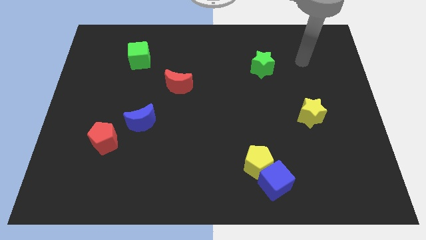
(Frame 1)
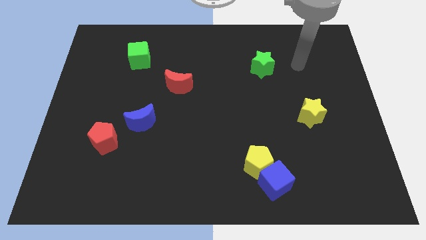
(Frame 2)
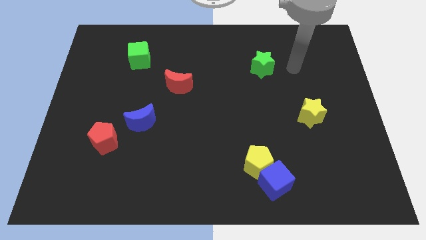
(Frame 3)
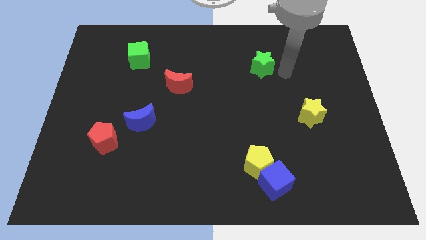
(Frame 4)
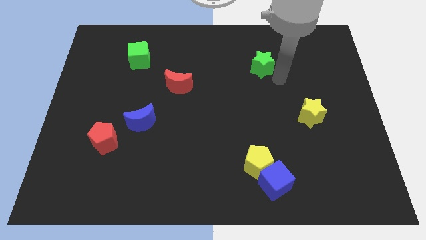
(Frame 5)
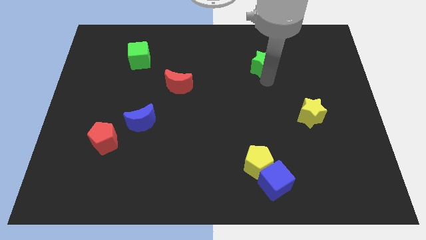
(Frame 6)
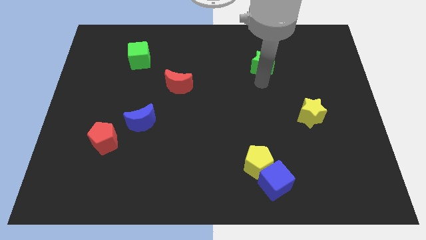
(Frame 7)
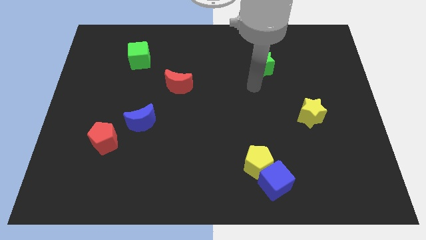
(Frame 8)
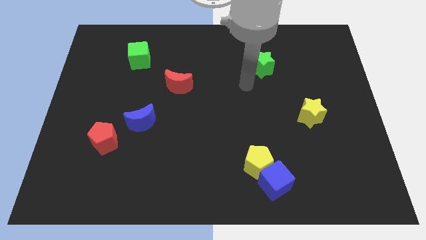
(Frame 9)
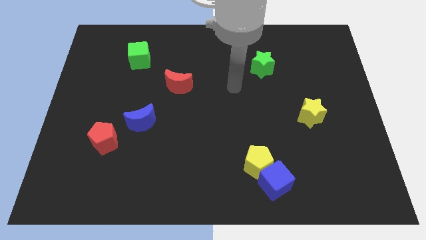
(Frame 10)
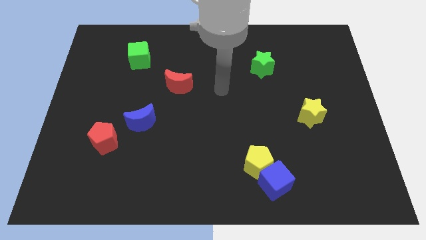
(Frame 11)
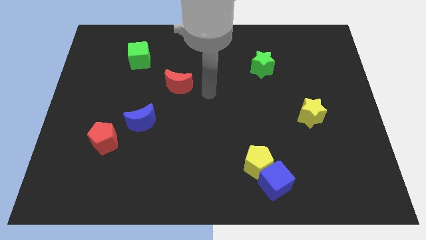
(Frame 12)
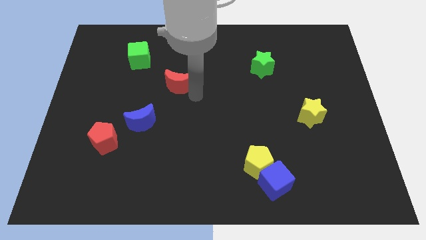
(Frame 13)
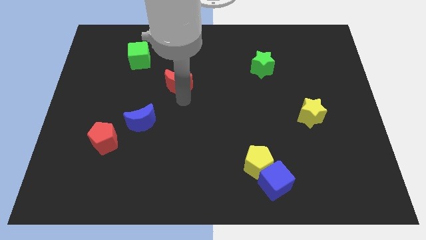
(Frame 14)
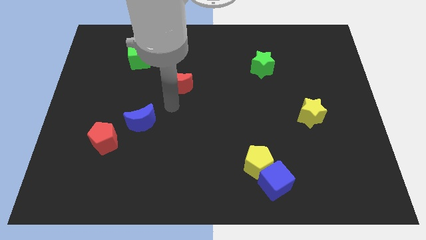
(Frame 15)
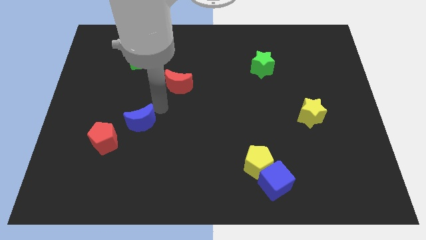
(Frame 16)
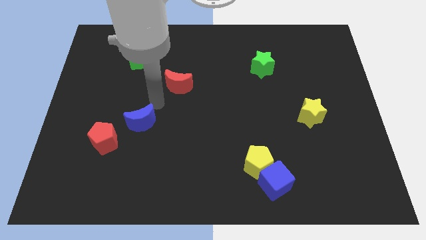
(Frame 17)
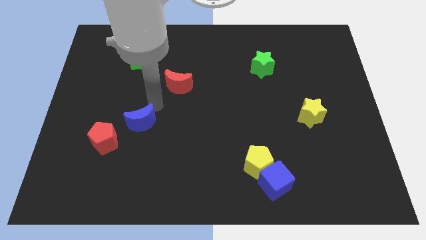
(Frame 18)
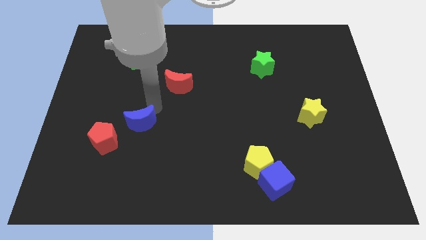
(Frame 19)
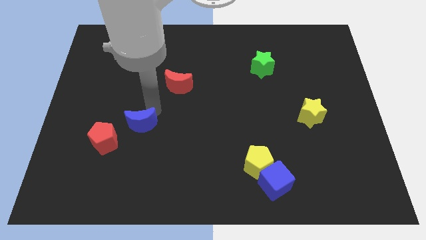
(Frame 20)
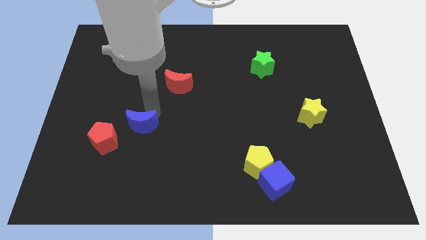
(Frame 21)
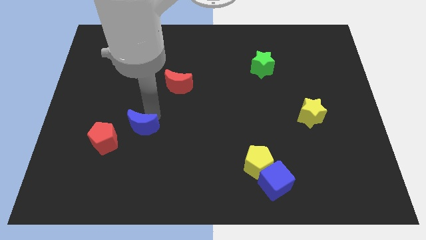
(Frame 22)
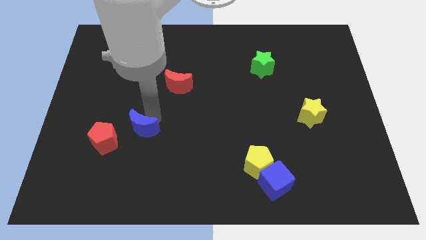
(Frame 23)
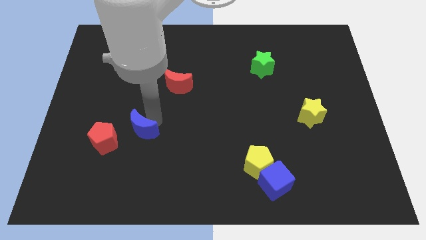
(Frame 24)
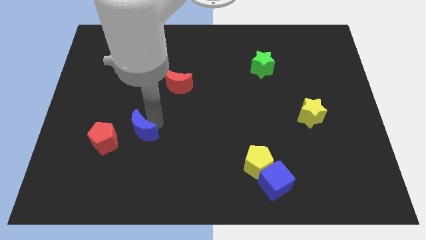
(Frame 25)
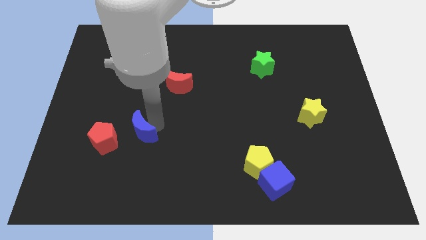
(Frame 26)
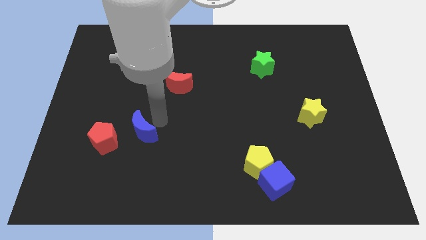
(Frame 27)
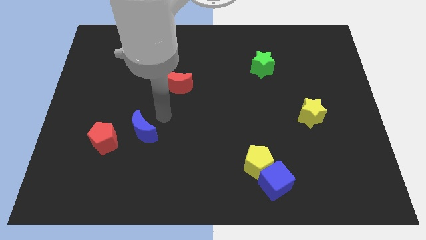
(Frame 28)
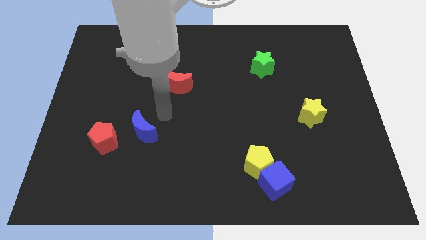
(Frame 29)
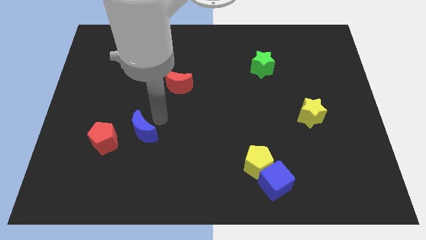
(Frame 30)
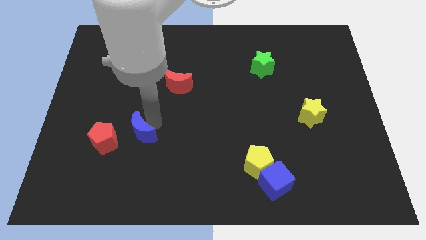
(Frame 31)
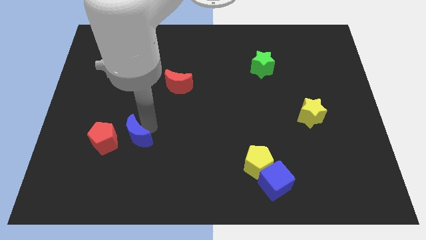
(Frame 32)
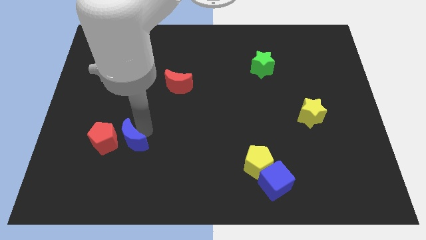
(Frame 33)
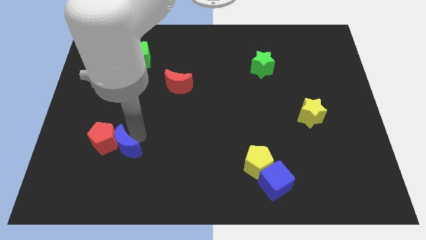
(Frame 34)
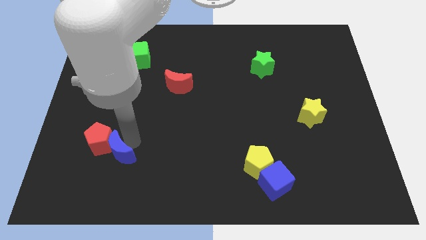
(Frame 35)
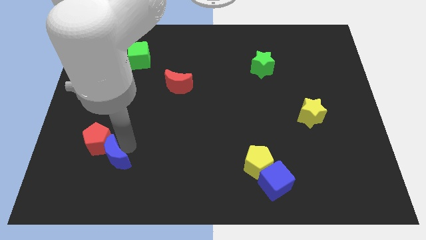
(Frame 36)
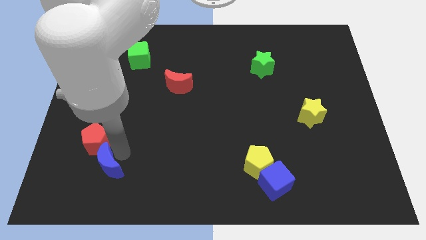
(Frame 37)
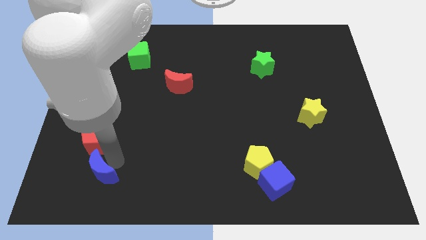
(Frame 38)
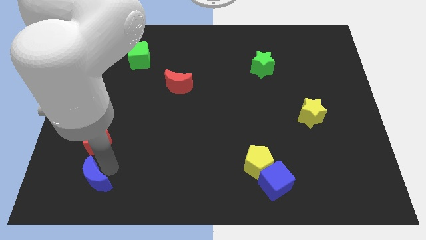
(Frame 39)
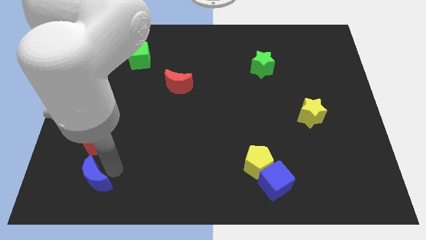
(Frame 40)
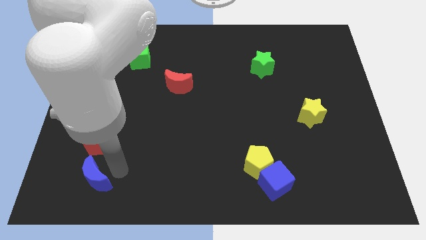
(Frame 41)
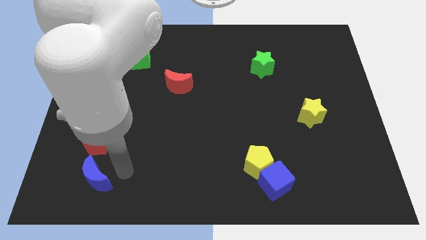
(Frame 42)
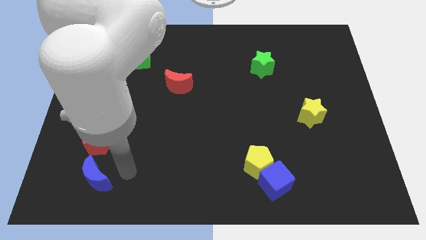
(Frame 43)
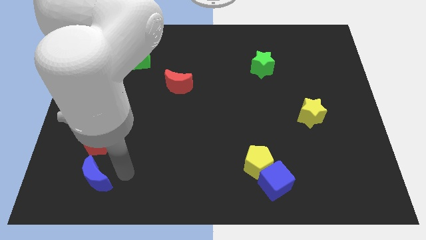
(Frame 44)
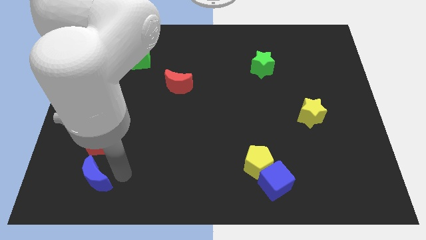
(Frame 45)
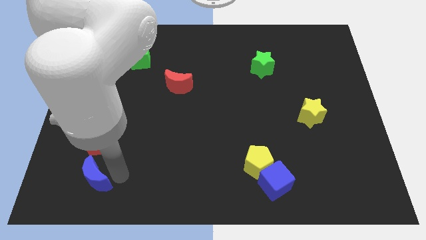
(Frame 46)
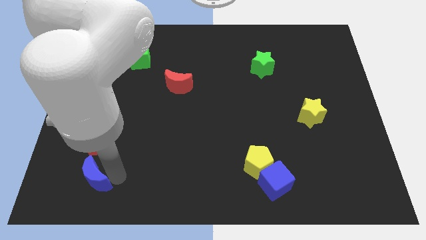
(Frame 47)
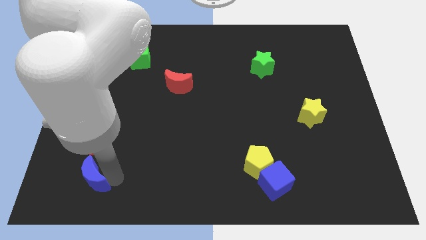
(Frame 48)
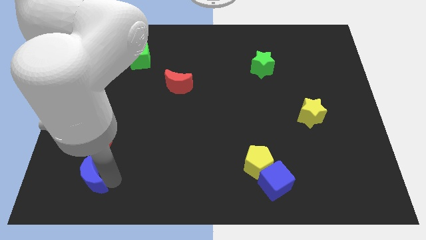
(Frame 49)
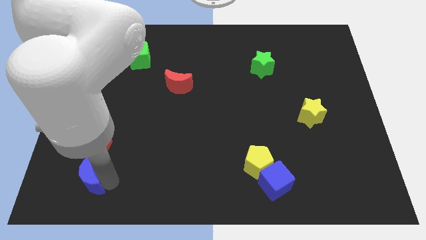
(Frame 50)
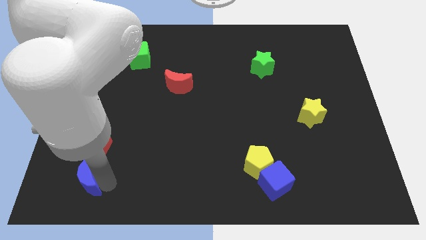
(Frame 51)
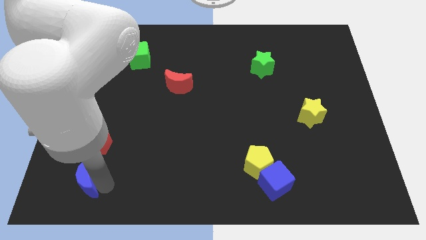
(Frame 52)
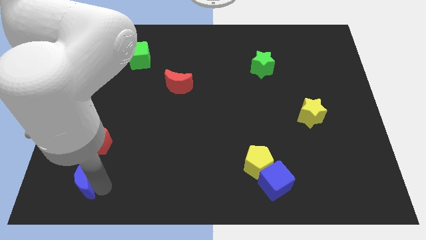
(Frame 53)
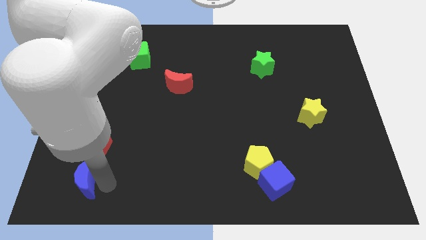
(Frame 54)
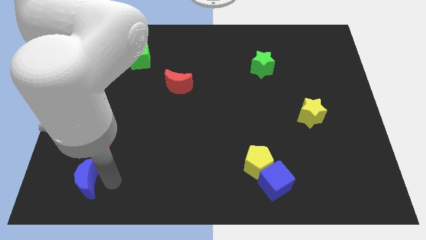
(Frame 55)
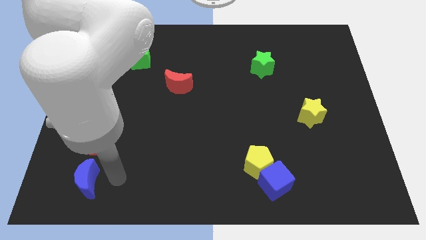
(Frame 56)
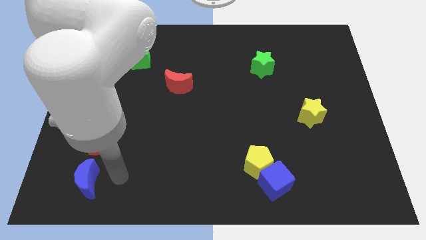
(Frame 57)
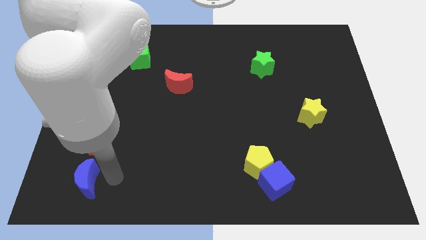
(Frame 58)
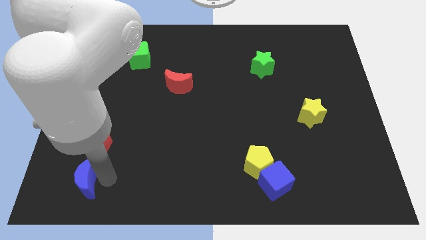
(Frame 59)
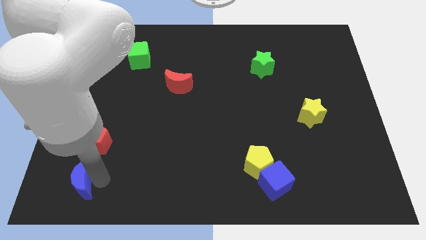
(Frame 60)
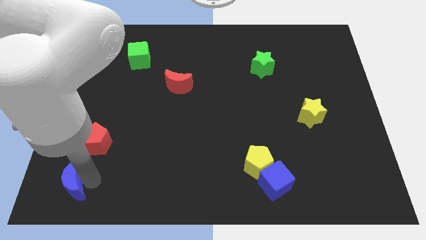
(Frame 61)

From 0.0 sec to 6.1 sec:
move the blue moon to the bottom left corner

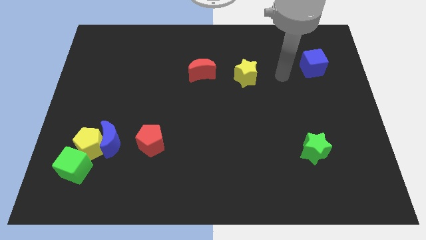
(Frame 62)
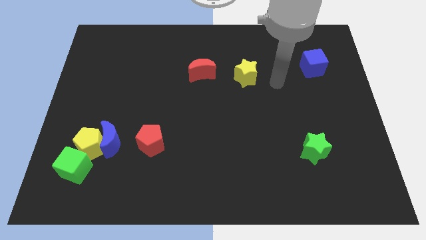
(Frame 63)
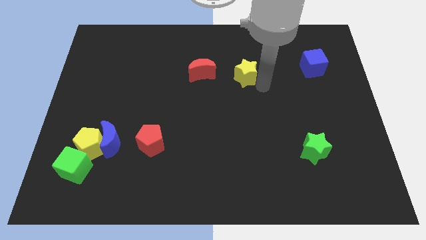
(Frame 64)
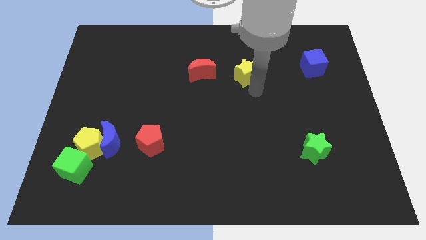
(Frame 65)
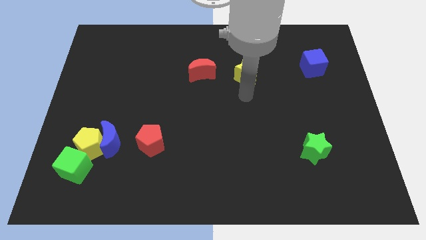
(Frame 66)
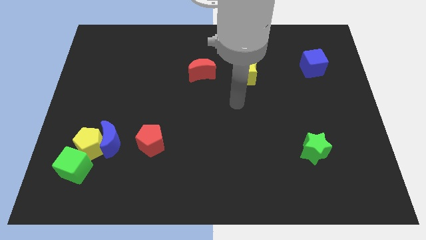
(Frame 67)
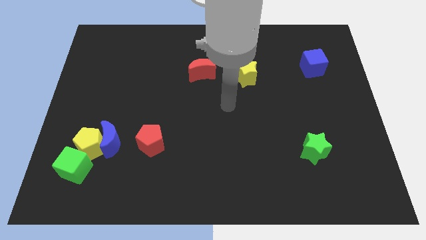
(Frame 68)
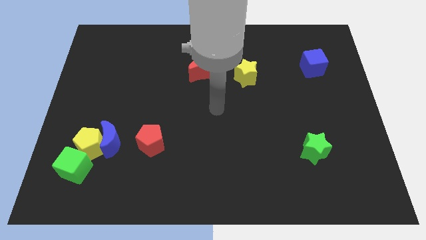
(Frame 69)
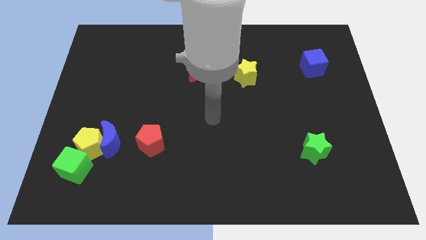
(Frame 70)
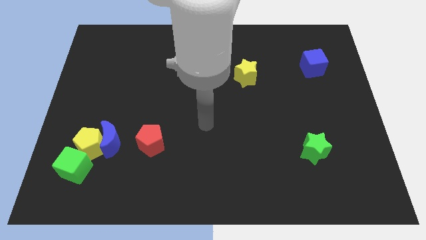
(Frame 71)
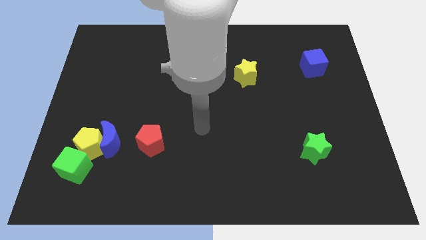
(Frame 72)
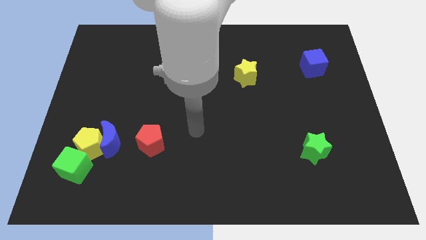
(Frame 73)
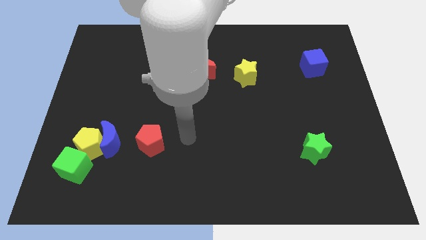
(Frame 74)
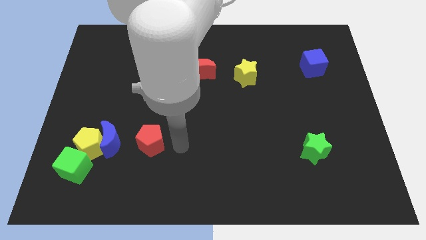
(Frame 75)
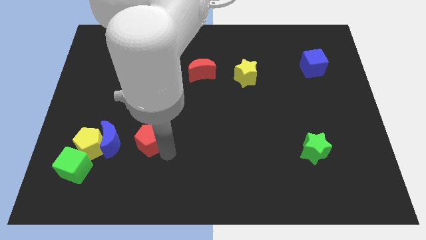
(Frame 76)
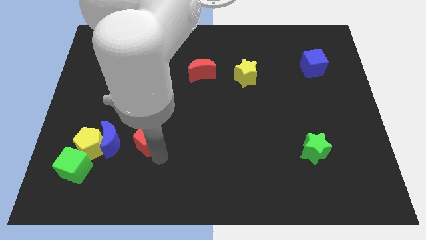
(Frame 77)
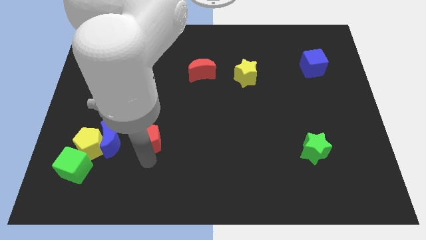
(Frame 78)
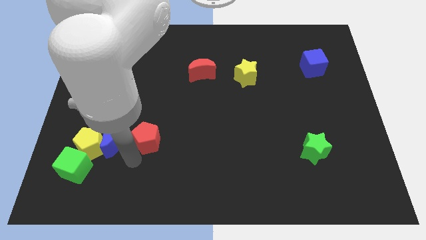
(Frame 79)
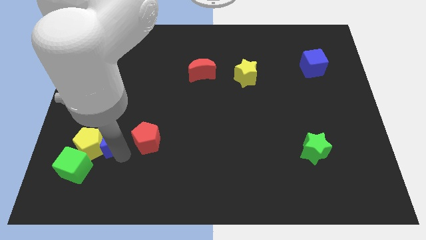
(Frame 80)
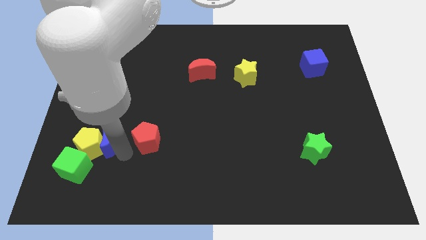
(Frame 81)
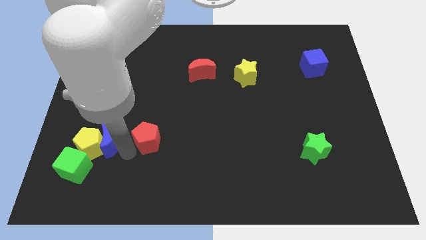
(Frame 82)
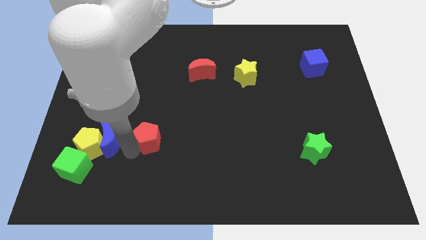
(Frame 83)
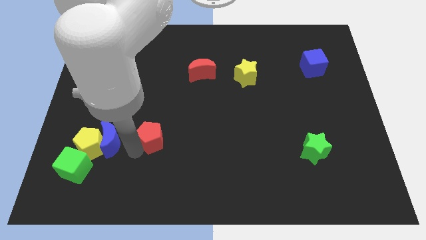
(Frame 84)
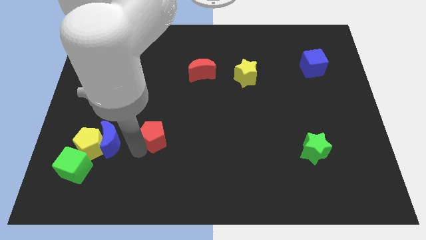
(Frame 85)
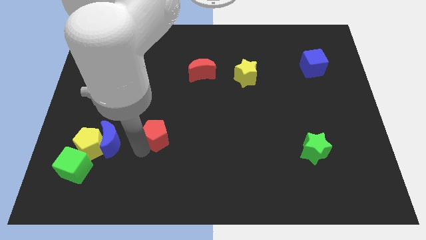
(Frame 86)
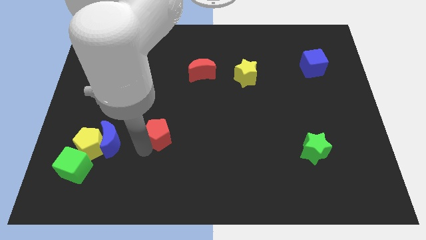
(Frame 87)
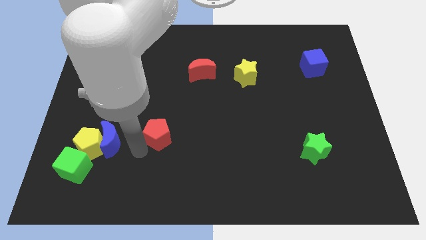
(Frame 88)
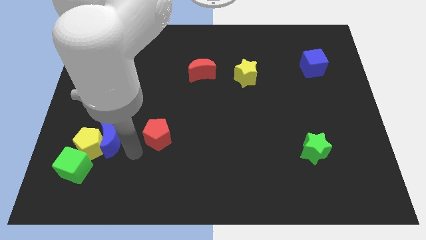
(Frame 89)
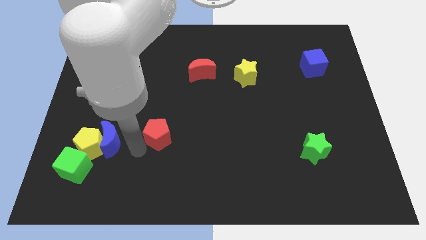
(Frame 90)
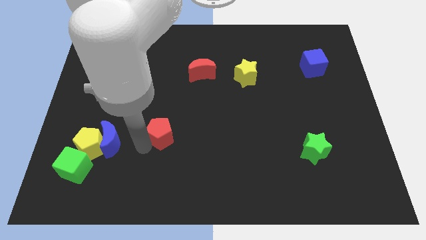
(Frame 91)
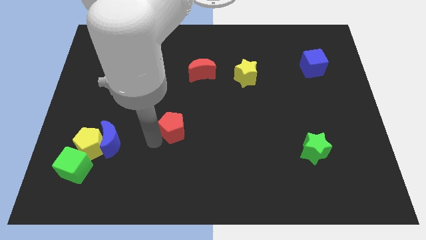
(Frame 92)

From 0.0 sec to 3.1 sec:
put the red pentagon to the middle
